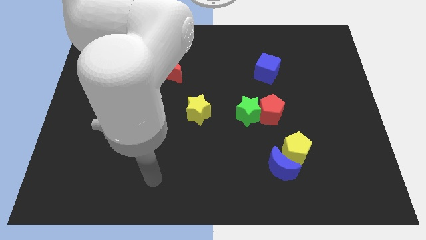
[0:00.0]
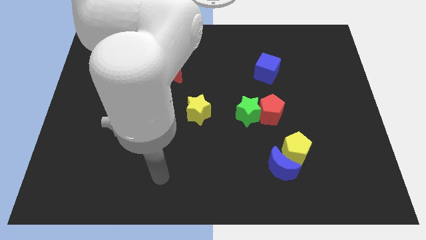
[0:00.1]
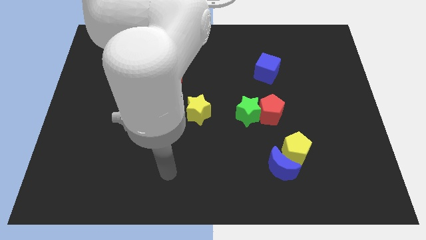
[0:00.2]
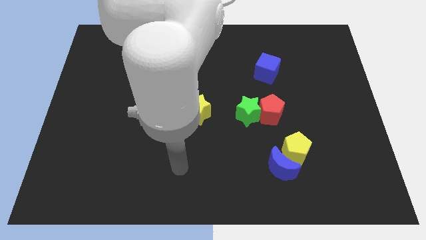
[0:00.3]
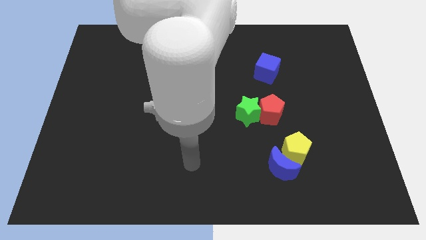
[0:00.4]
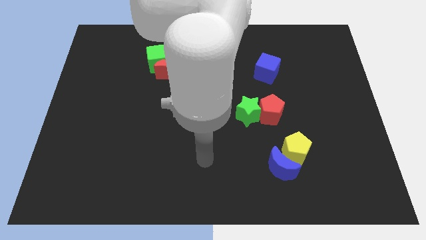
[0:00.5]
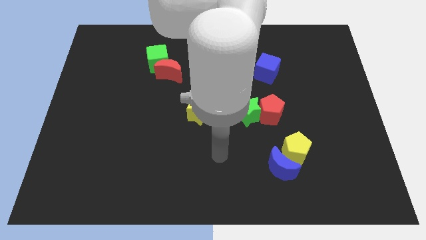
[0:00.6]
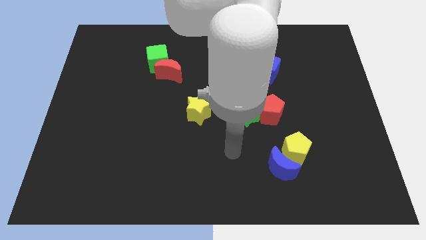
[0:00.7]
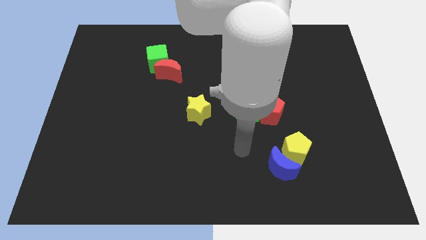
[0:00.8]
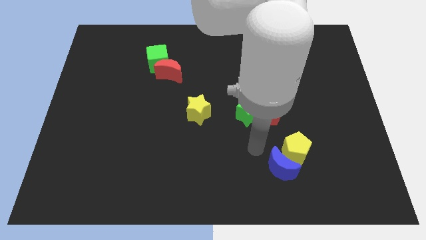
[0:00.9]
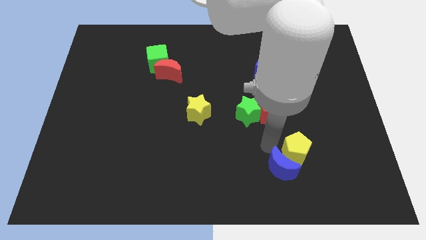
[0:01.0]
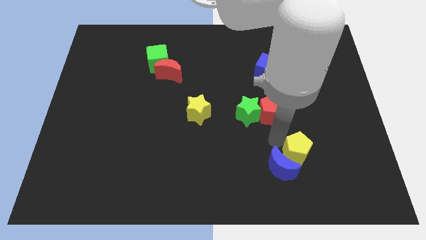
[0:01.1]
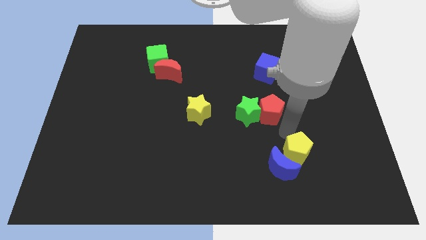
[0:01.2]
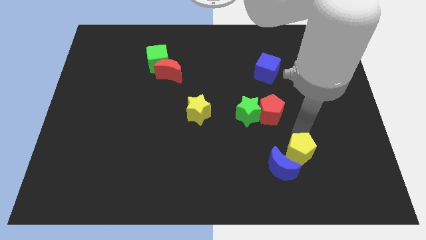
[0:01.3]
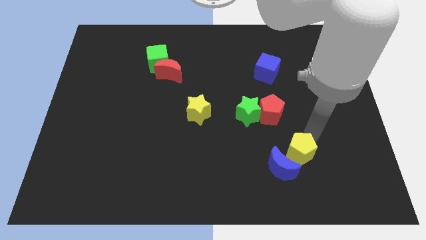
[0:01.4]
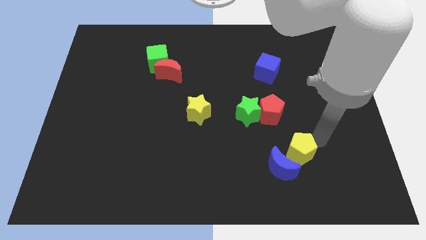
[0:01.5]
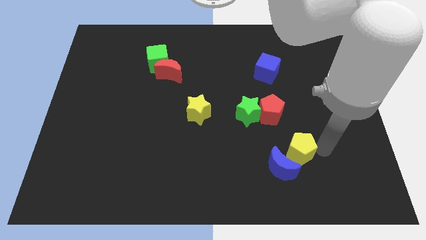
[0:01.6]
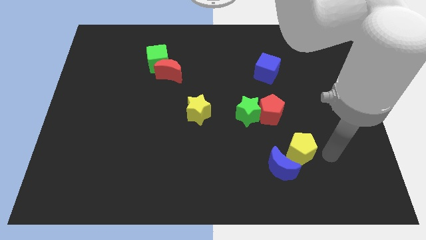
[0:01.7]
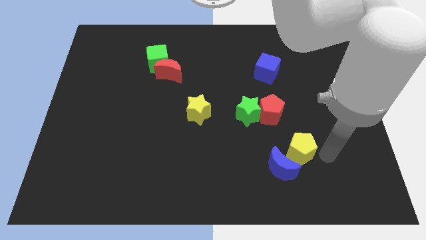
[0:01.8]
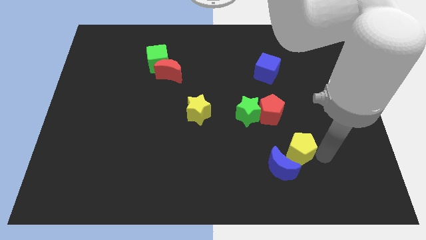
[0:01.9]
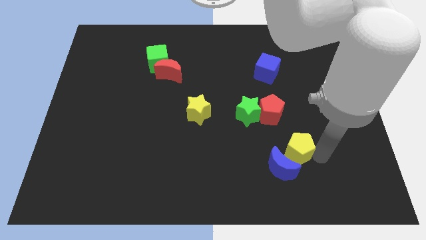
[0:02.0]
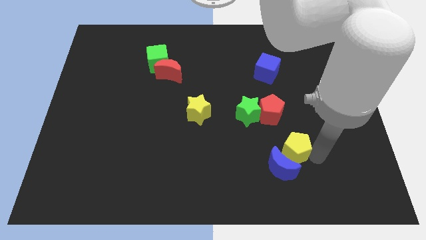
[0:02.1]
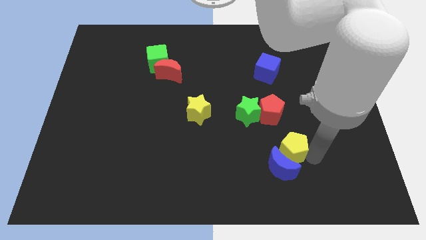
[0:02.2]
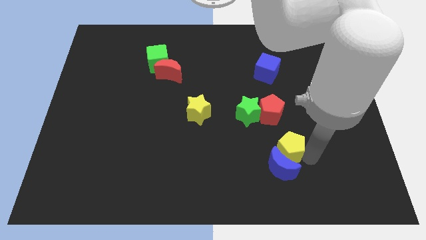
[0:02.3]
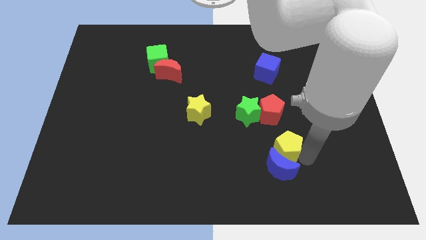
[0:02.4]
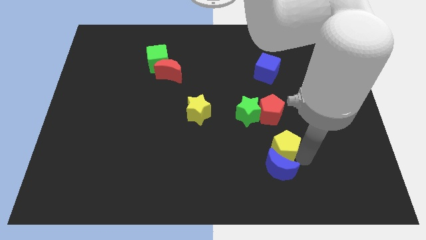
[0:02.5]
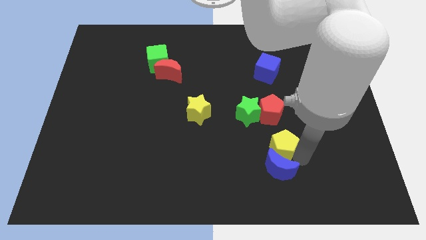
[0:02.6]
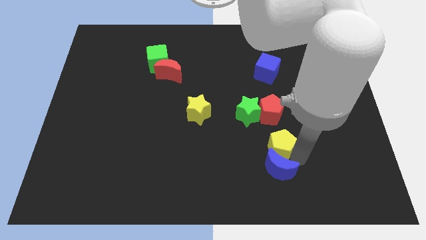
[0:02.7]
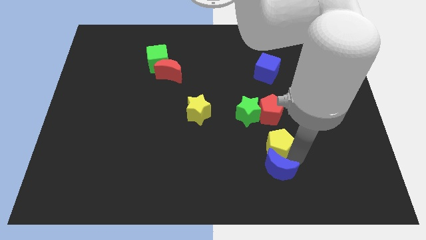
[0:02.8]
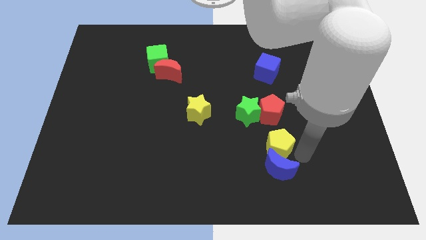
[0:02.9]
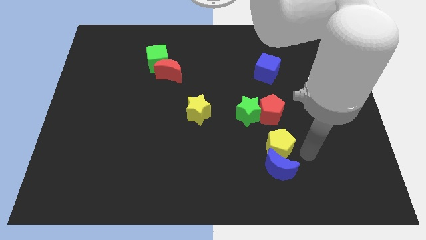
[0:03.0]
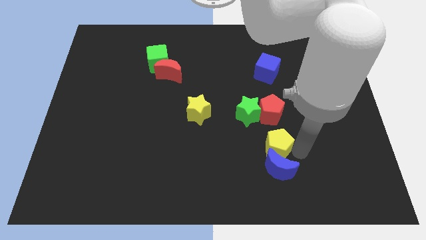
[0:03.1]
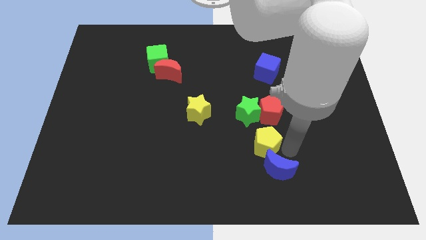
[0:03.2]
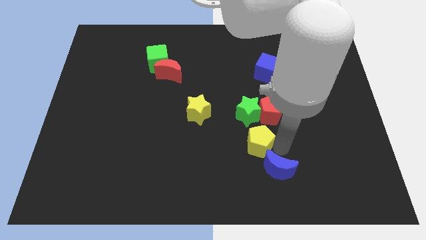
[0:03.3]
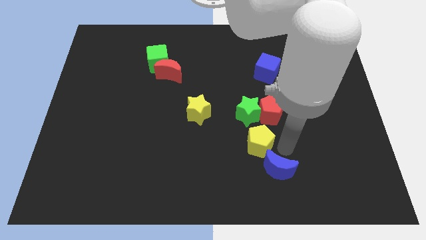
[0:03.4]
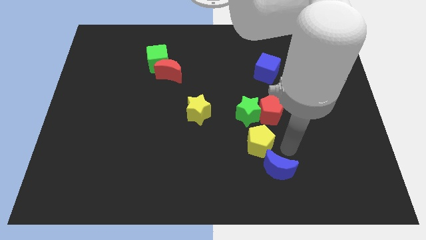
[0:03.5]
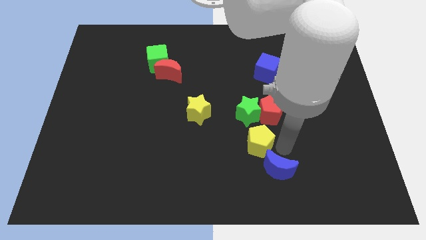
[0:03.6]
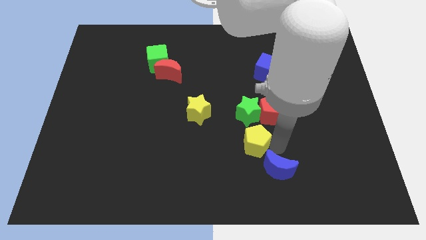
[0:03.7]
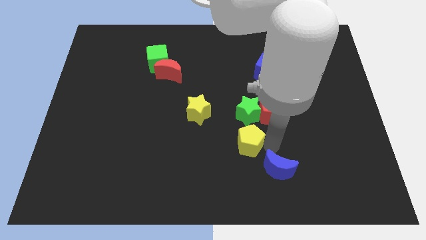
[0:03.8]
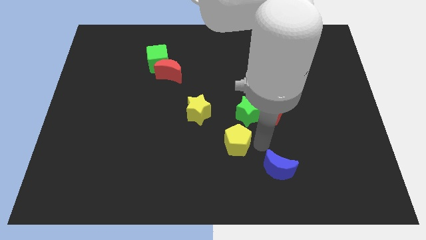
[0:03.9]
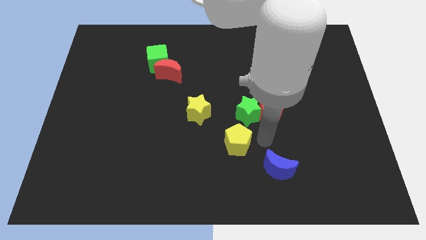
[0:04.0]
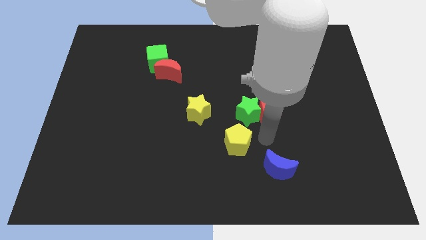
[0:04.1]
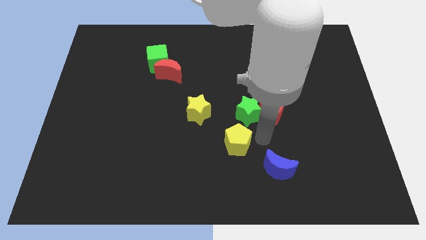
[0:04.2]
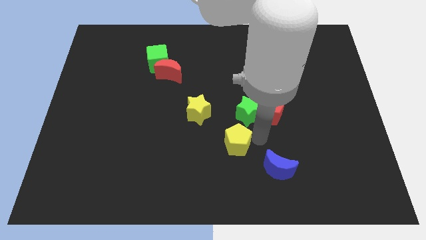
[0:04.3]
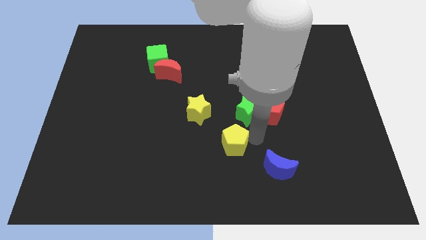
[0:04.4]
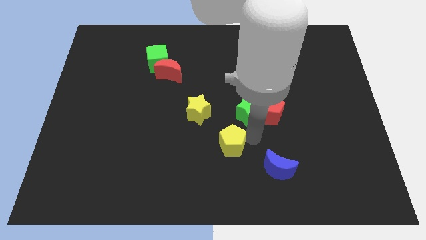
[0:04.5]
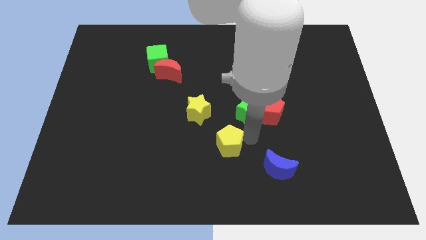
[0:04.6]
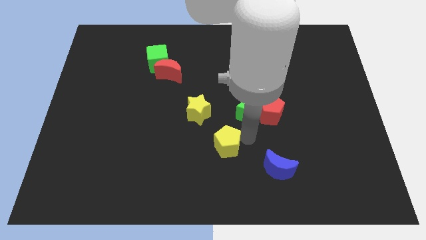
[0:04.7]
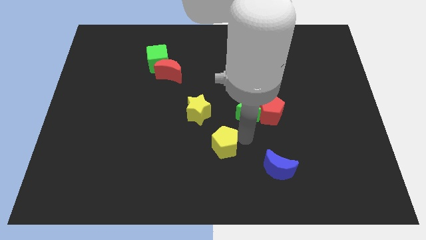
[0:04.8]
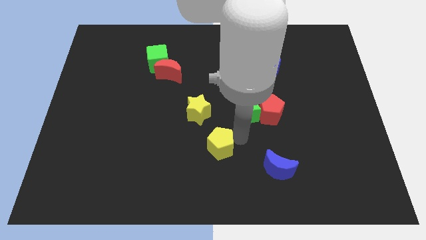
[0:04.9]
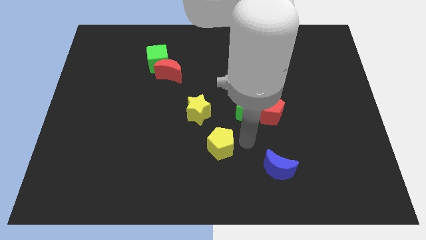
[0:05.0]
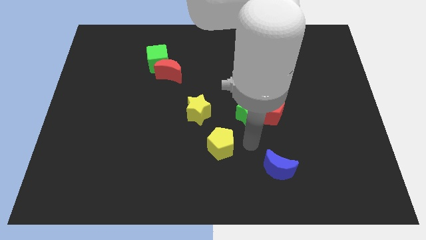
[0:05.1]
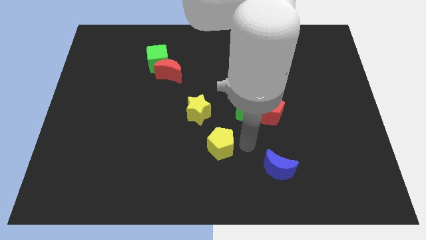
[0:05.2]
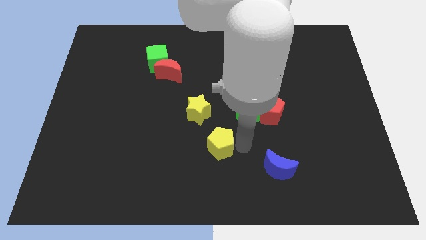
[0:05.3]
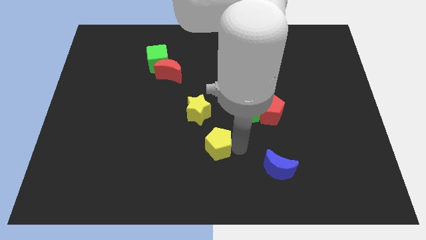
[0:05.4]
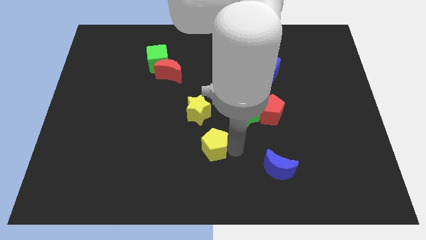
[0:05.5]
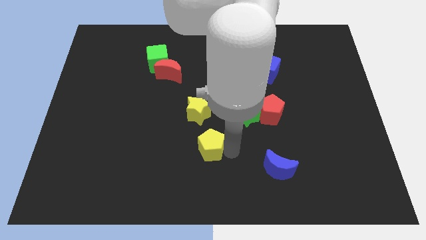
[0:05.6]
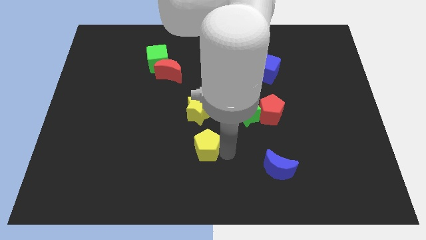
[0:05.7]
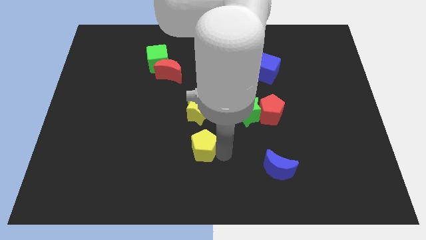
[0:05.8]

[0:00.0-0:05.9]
slide the yellow pentagon to the left

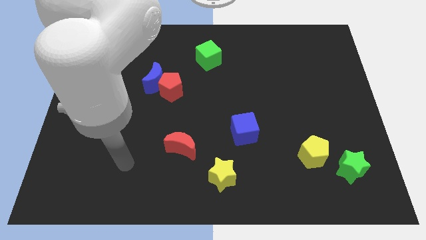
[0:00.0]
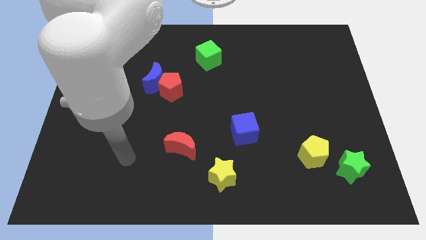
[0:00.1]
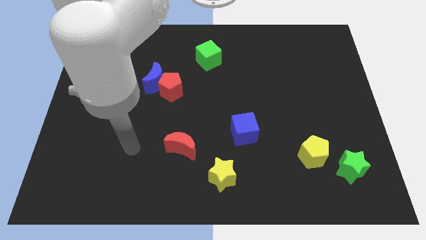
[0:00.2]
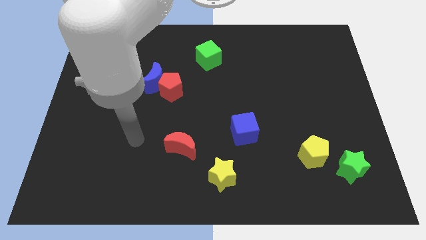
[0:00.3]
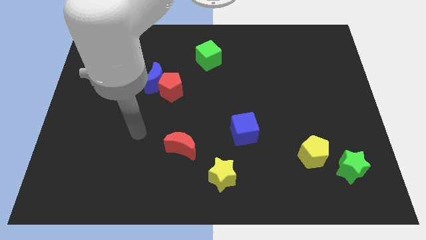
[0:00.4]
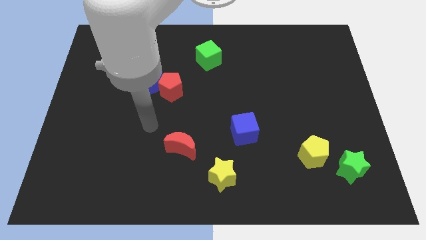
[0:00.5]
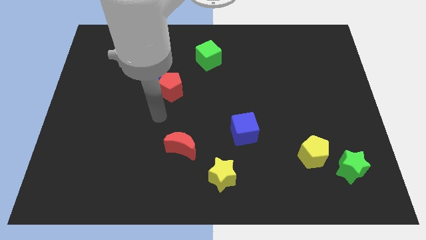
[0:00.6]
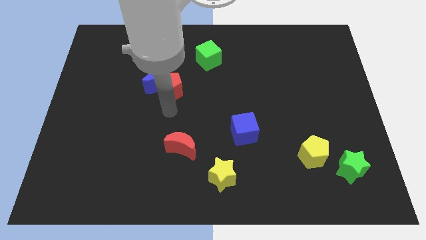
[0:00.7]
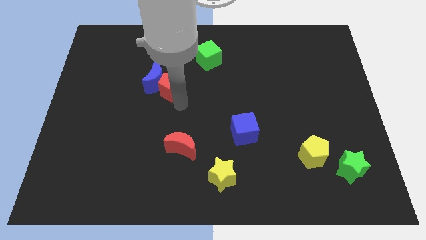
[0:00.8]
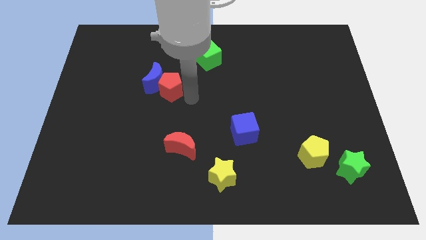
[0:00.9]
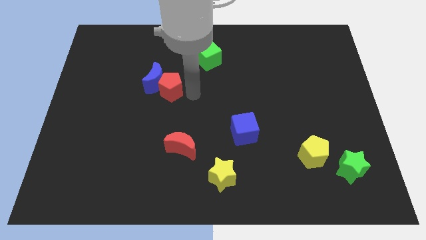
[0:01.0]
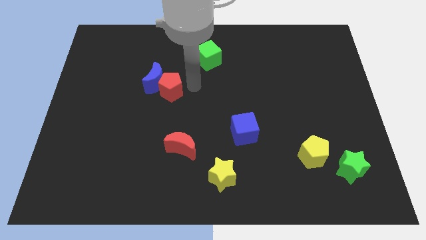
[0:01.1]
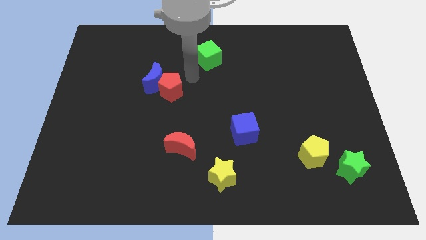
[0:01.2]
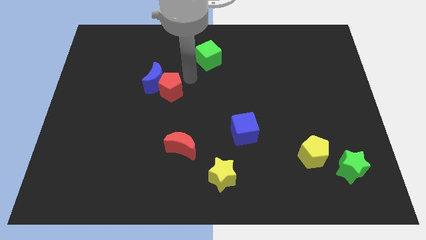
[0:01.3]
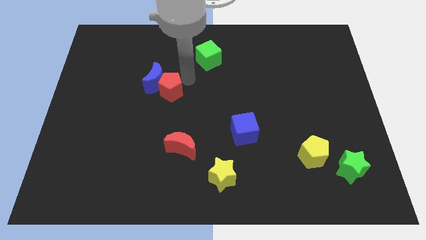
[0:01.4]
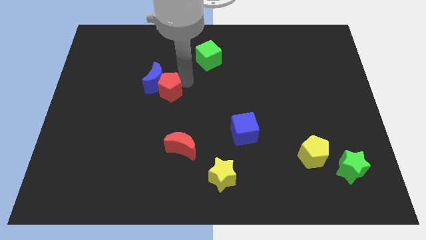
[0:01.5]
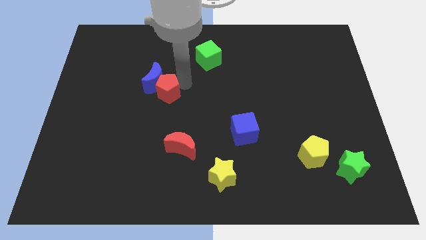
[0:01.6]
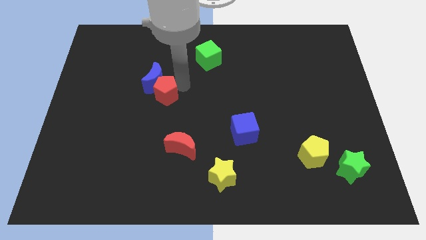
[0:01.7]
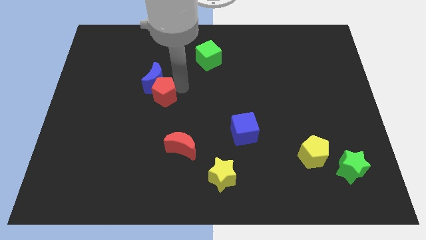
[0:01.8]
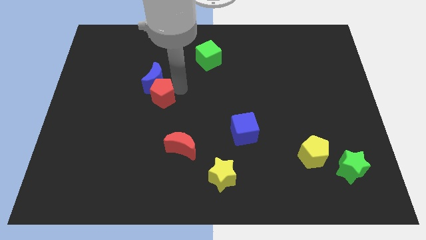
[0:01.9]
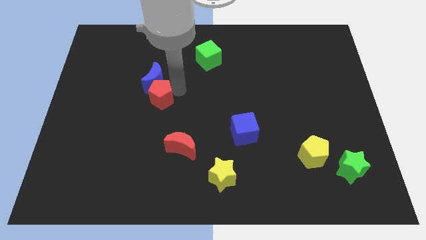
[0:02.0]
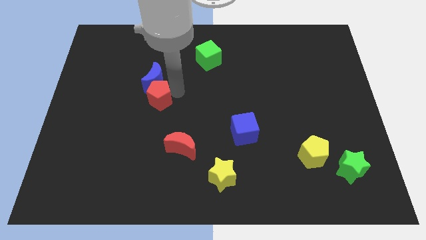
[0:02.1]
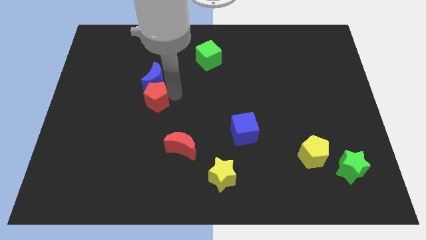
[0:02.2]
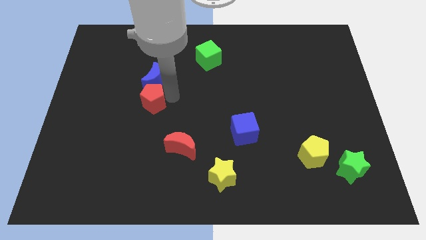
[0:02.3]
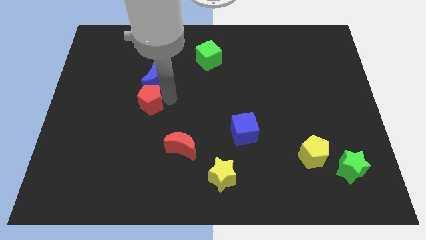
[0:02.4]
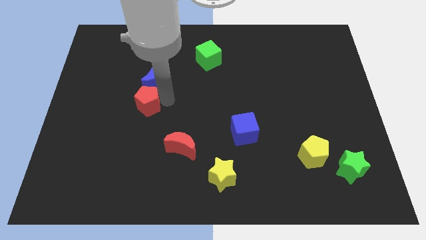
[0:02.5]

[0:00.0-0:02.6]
move the red pentagon down and to the left diagonally a little
